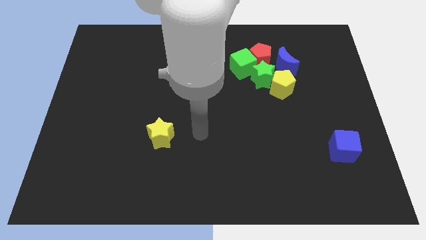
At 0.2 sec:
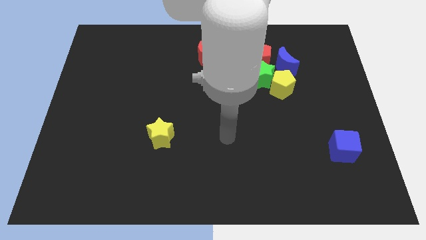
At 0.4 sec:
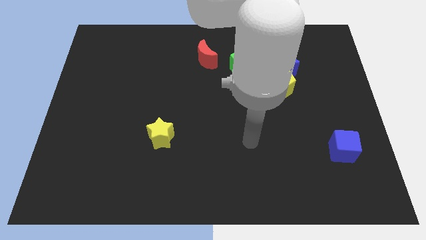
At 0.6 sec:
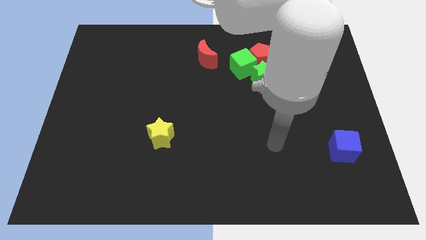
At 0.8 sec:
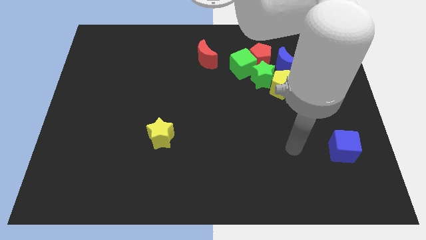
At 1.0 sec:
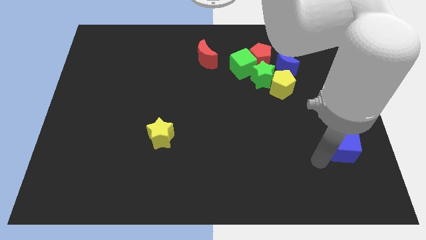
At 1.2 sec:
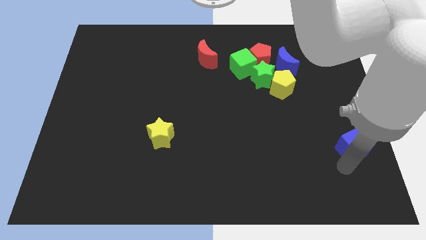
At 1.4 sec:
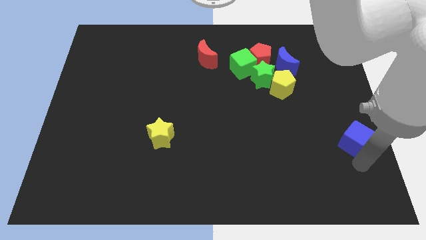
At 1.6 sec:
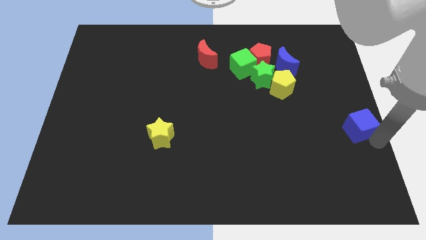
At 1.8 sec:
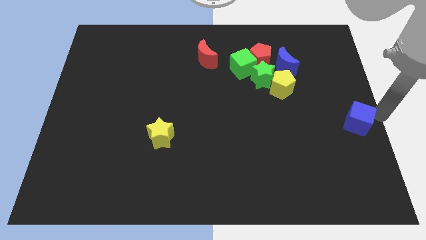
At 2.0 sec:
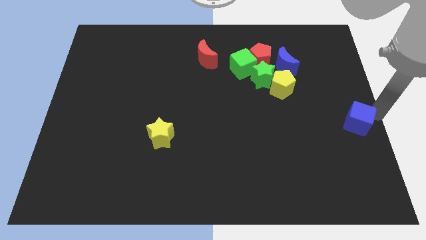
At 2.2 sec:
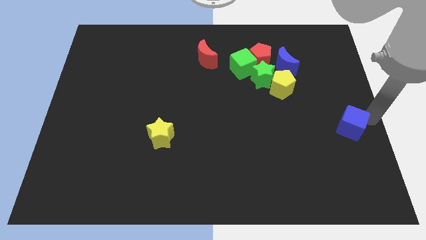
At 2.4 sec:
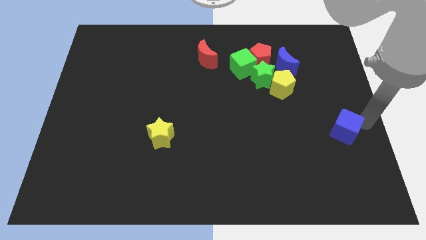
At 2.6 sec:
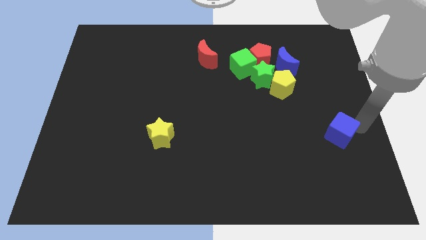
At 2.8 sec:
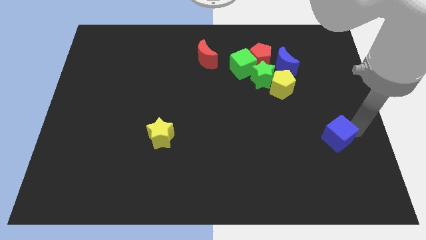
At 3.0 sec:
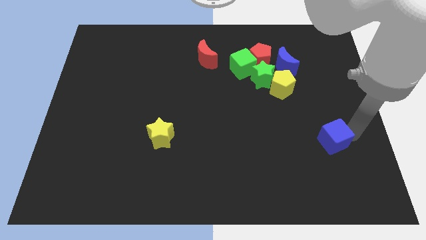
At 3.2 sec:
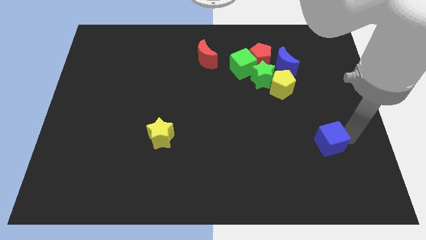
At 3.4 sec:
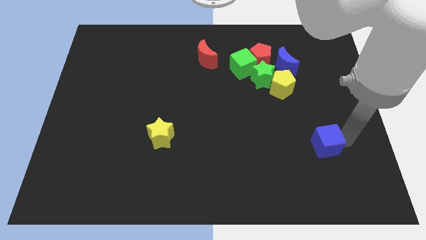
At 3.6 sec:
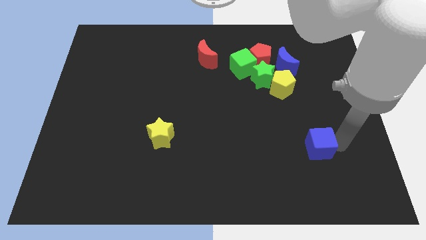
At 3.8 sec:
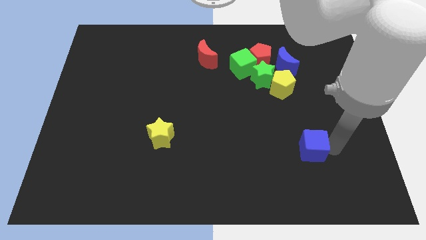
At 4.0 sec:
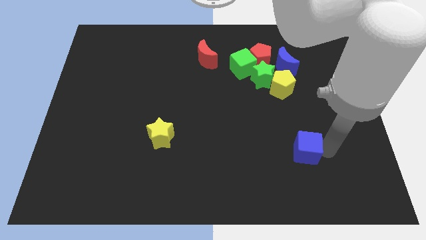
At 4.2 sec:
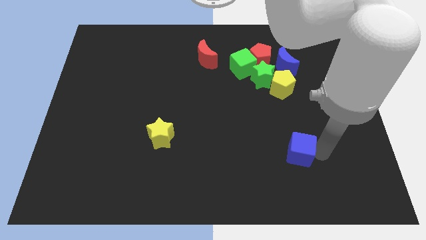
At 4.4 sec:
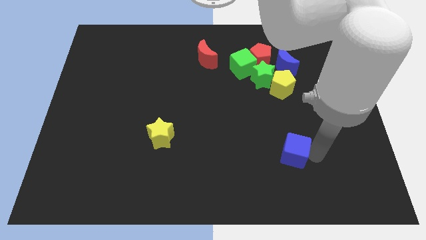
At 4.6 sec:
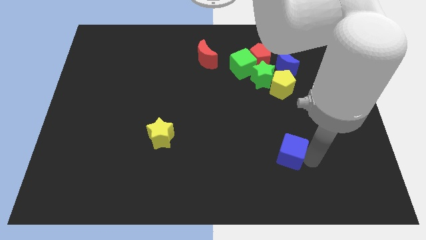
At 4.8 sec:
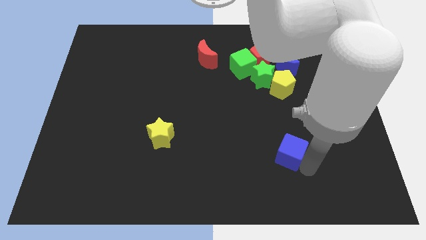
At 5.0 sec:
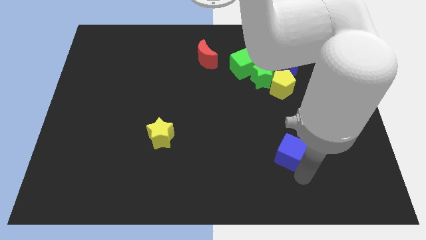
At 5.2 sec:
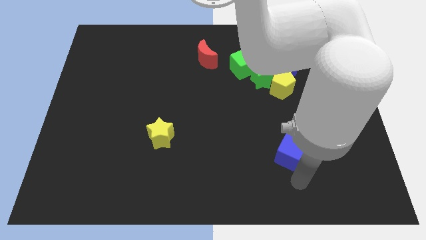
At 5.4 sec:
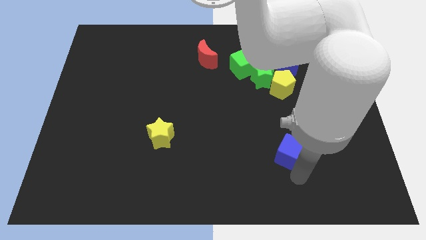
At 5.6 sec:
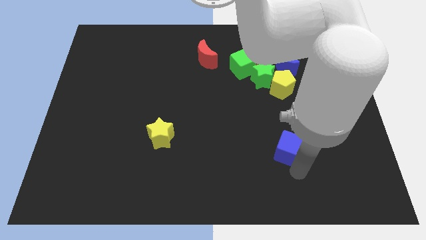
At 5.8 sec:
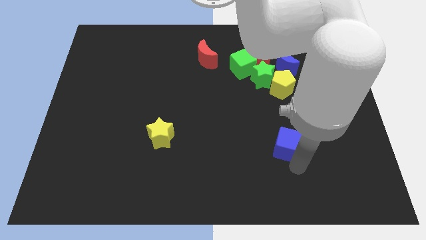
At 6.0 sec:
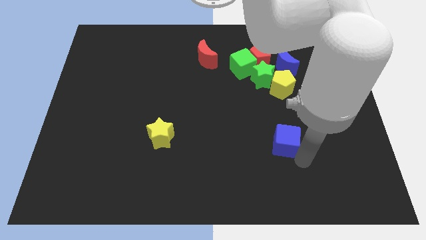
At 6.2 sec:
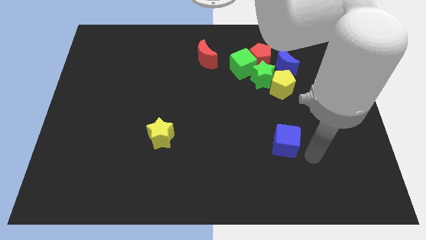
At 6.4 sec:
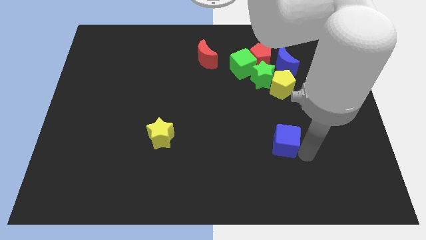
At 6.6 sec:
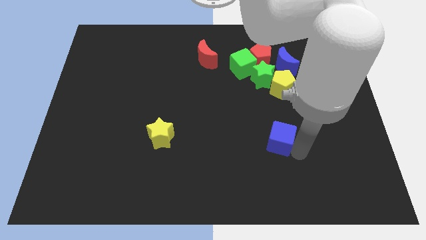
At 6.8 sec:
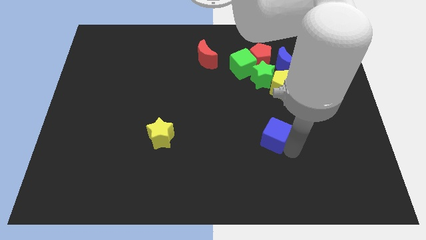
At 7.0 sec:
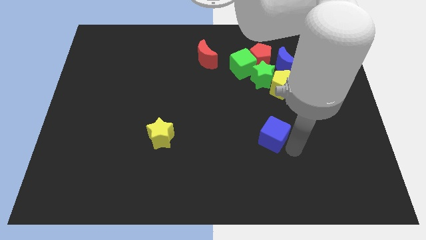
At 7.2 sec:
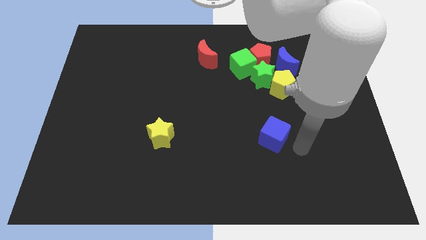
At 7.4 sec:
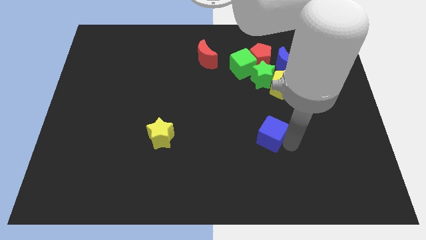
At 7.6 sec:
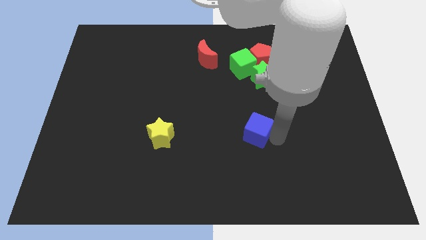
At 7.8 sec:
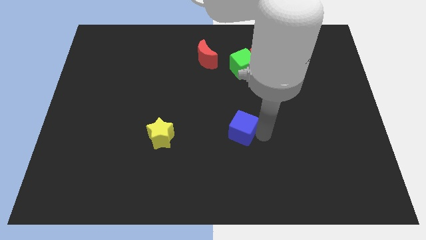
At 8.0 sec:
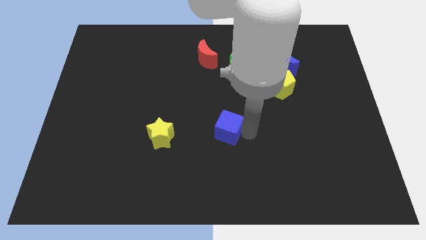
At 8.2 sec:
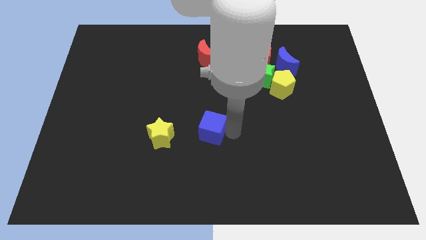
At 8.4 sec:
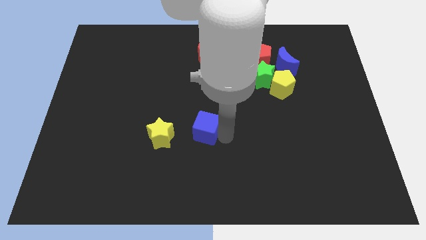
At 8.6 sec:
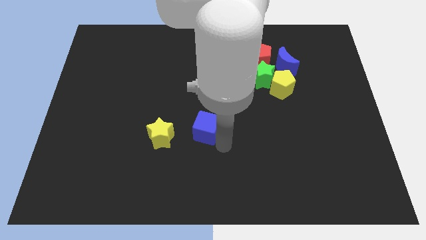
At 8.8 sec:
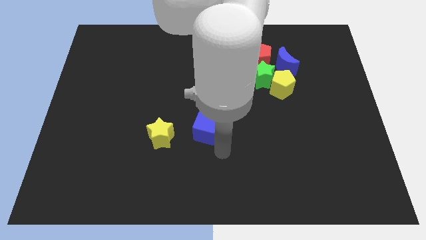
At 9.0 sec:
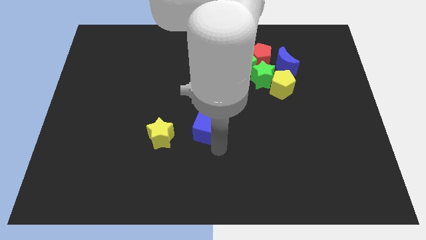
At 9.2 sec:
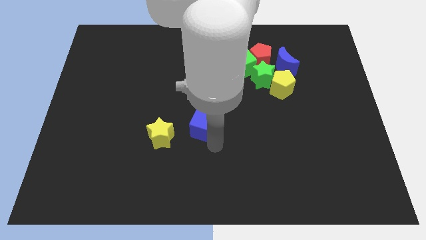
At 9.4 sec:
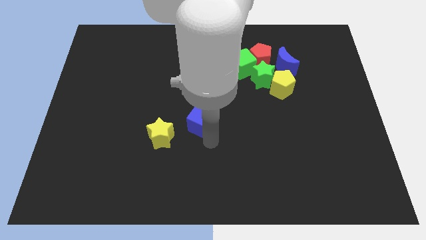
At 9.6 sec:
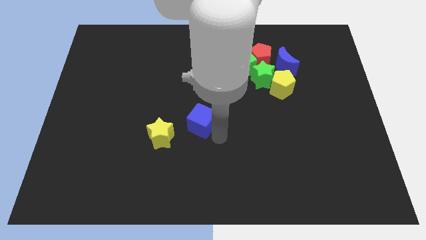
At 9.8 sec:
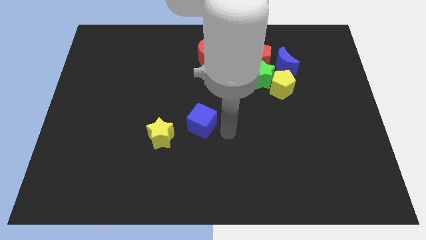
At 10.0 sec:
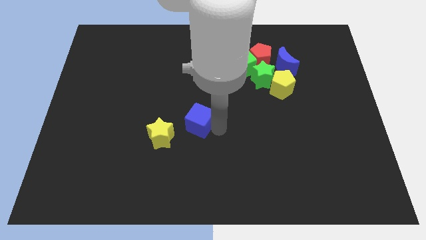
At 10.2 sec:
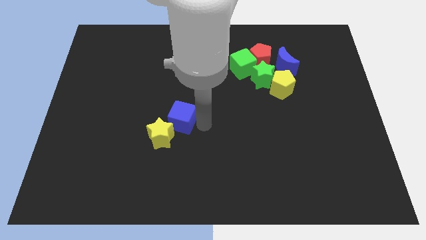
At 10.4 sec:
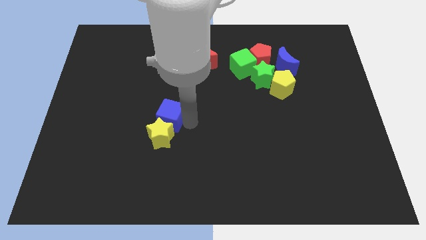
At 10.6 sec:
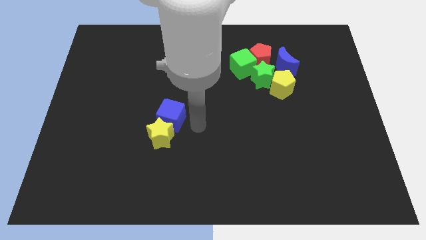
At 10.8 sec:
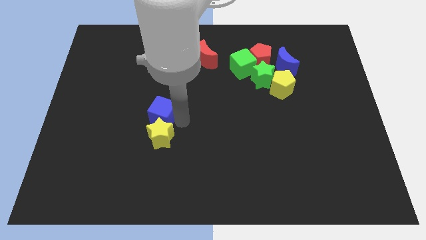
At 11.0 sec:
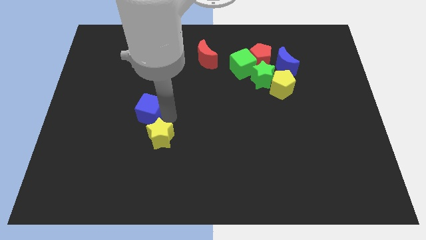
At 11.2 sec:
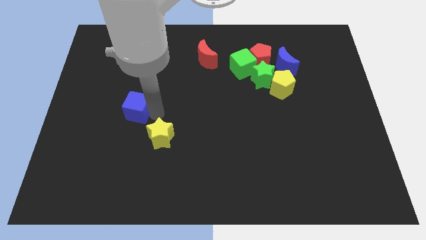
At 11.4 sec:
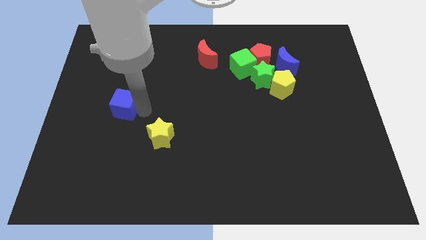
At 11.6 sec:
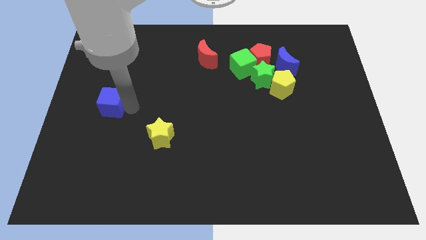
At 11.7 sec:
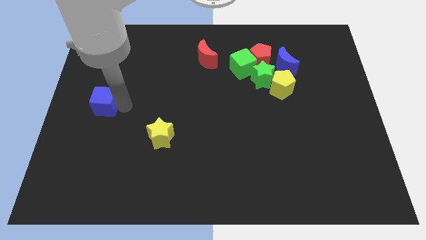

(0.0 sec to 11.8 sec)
put the blue cube to the left side of the board
